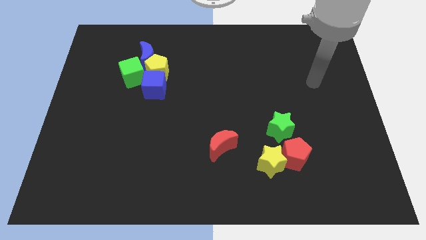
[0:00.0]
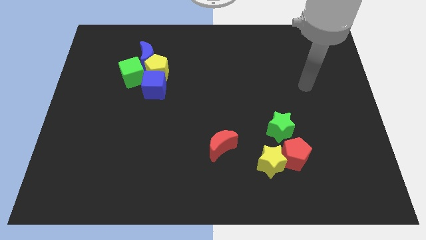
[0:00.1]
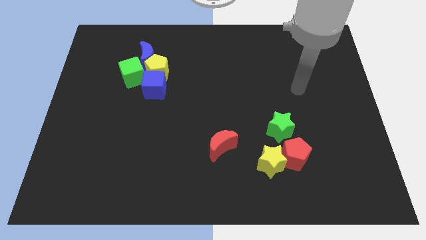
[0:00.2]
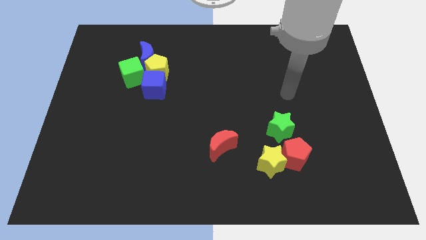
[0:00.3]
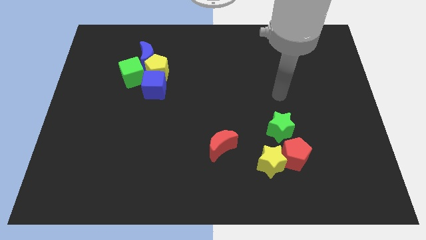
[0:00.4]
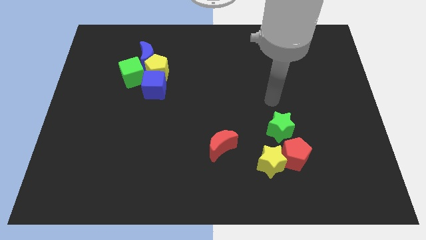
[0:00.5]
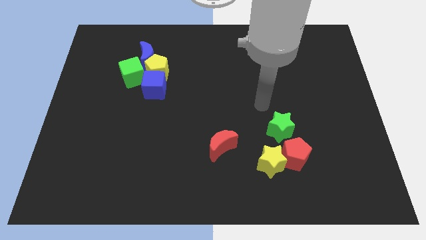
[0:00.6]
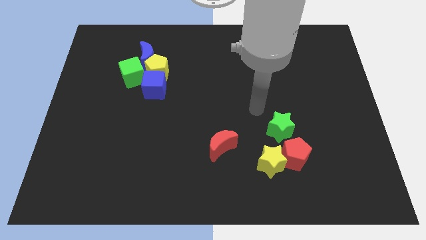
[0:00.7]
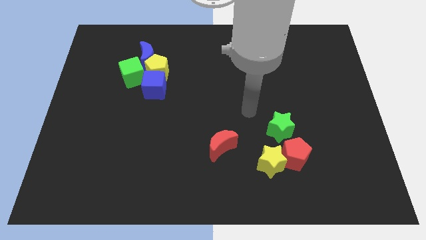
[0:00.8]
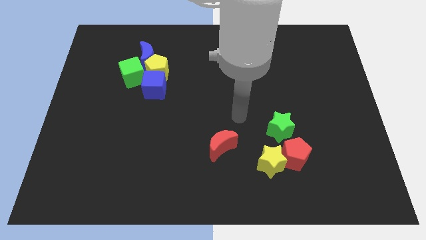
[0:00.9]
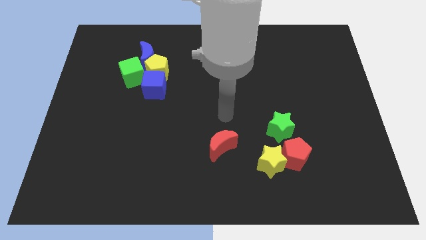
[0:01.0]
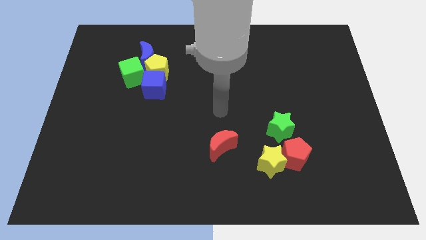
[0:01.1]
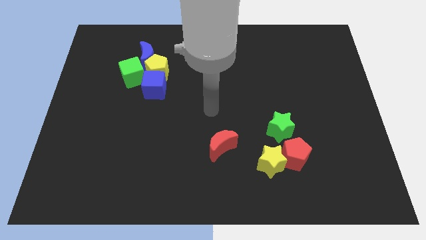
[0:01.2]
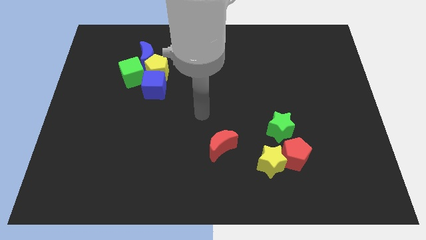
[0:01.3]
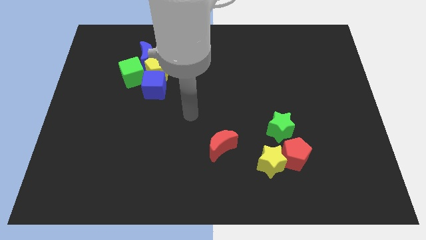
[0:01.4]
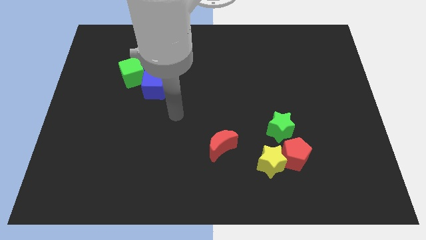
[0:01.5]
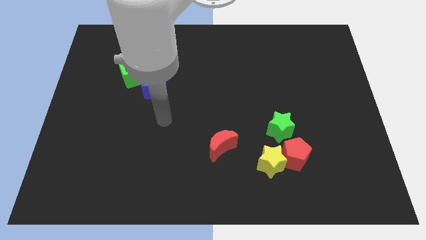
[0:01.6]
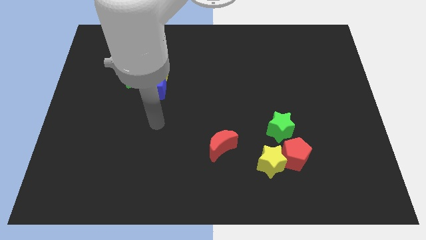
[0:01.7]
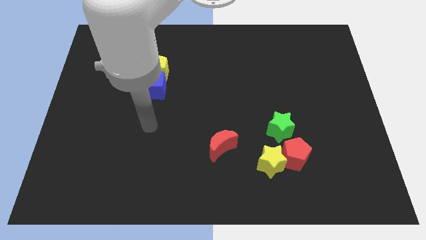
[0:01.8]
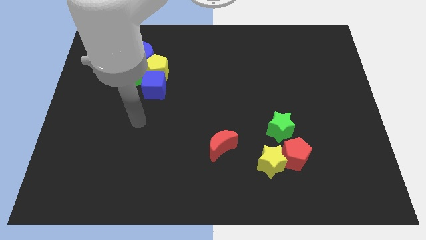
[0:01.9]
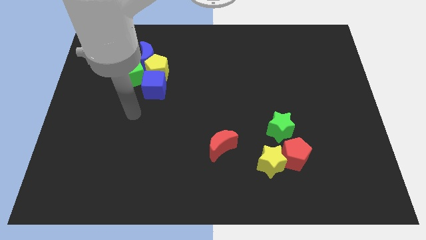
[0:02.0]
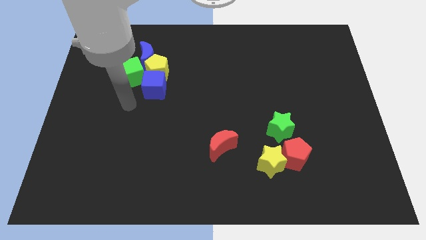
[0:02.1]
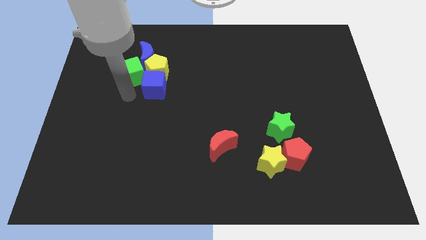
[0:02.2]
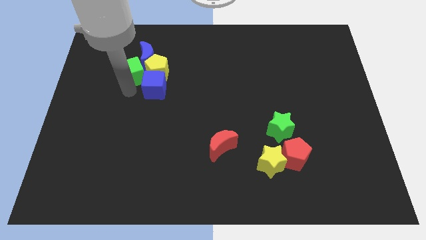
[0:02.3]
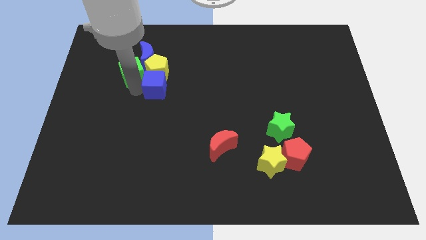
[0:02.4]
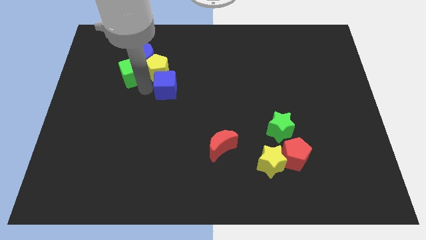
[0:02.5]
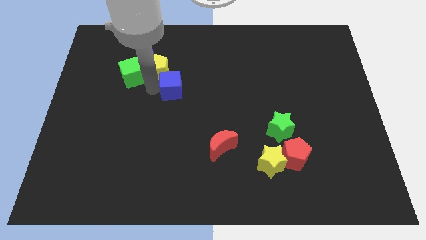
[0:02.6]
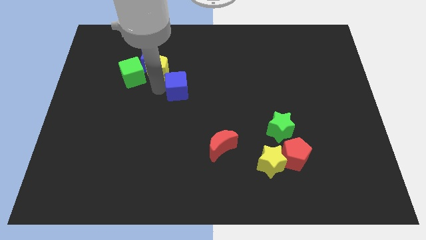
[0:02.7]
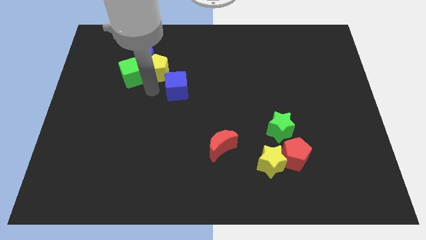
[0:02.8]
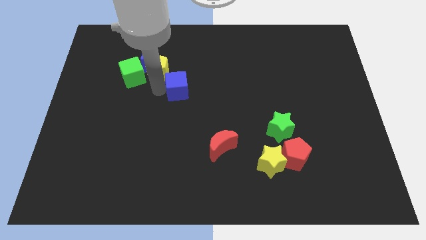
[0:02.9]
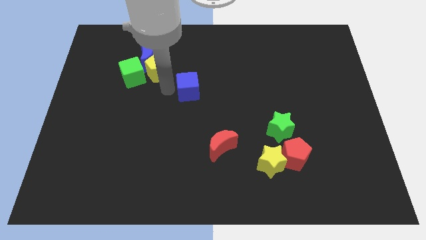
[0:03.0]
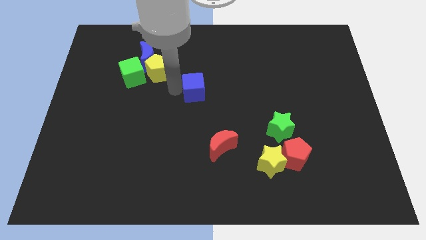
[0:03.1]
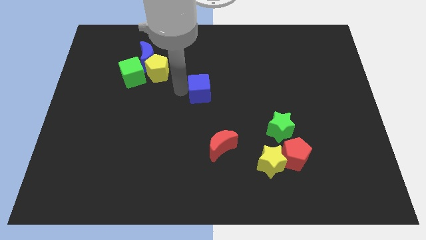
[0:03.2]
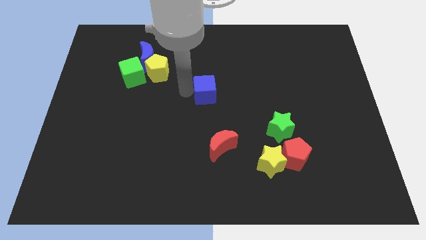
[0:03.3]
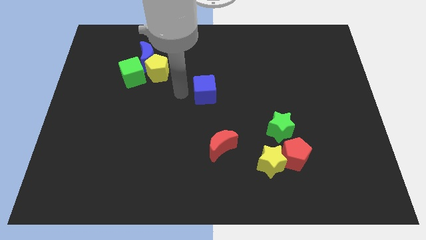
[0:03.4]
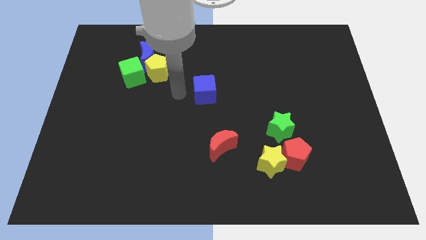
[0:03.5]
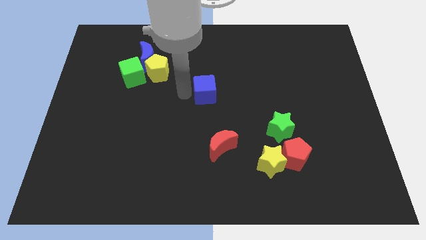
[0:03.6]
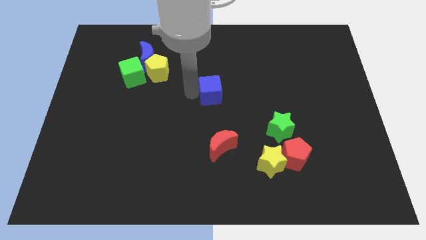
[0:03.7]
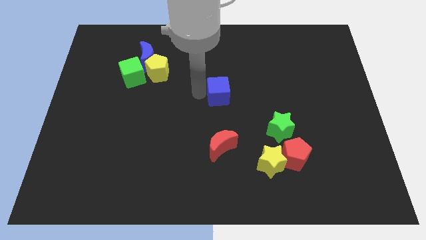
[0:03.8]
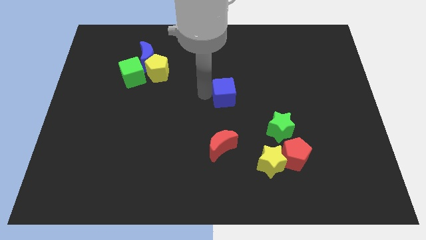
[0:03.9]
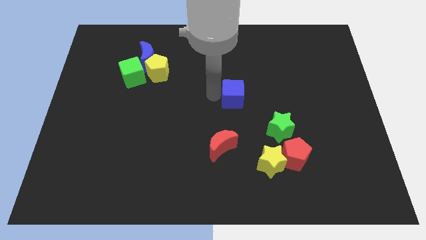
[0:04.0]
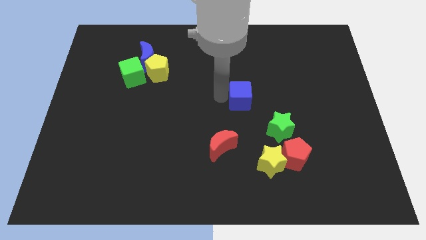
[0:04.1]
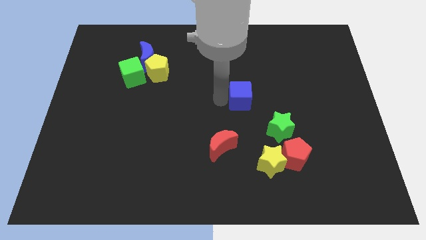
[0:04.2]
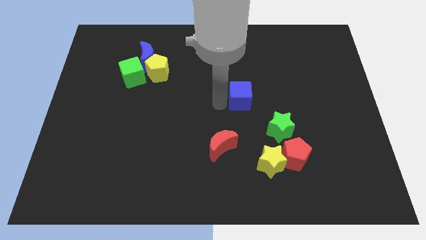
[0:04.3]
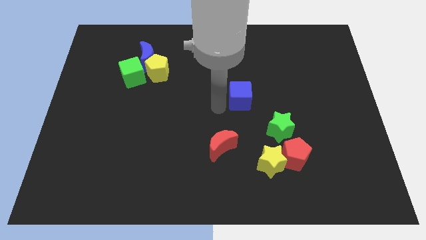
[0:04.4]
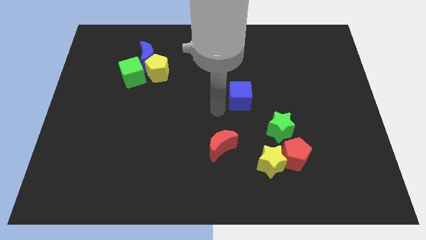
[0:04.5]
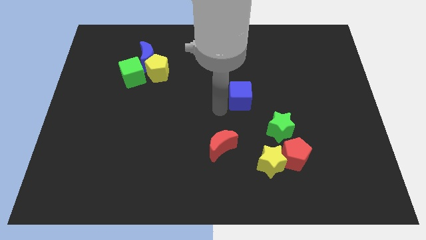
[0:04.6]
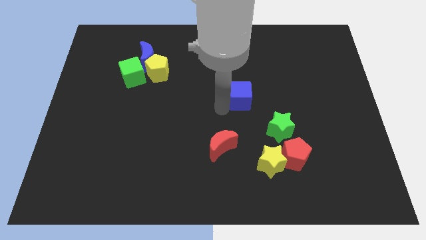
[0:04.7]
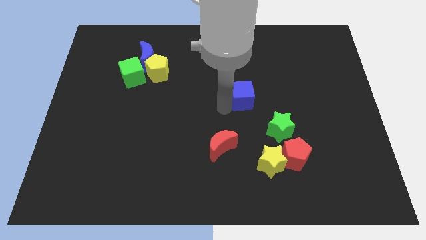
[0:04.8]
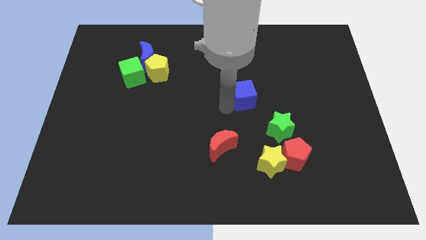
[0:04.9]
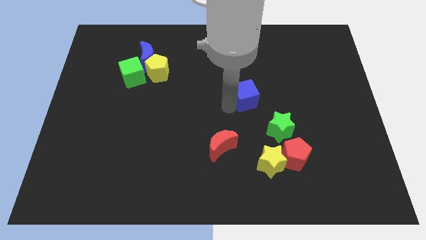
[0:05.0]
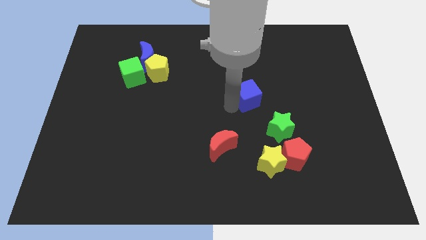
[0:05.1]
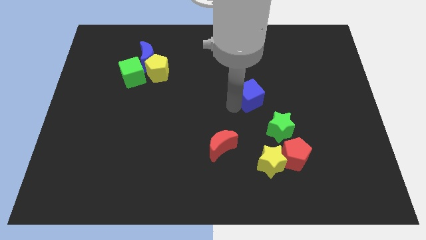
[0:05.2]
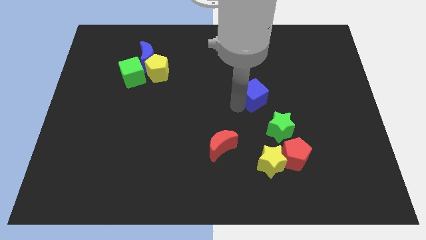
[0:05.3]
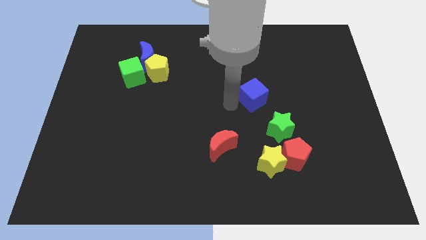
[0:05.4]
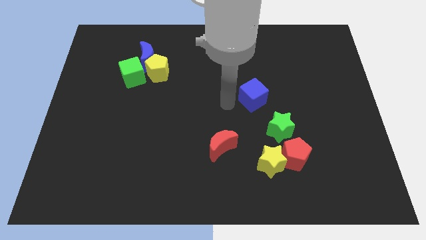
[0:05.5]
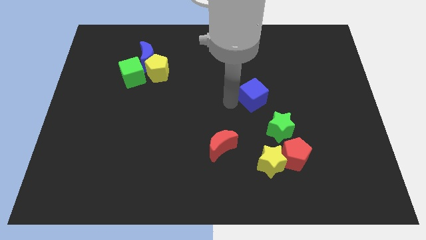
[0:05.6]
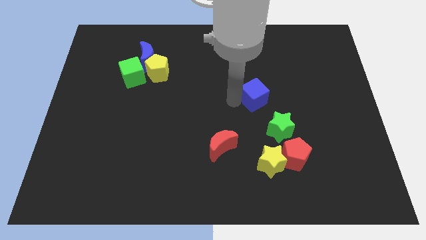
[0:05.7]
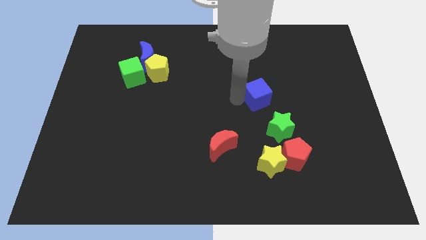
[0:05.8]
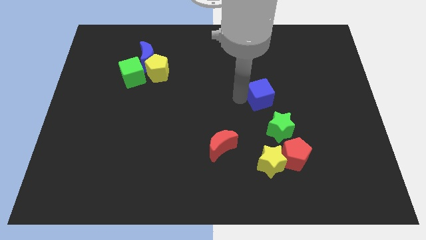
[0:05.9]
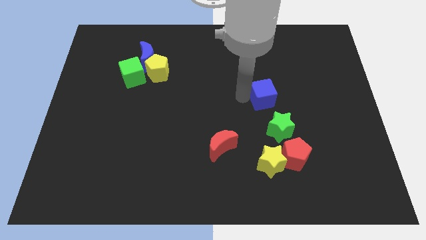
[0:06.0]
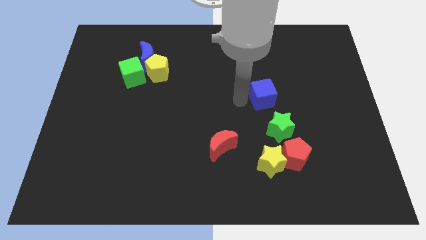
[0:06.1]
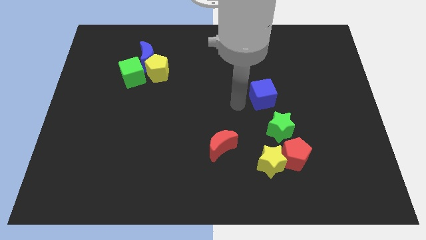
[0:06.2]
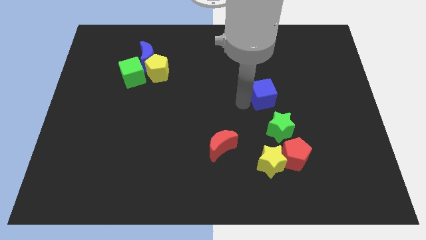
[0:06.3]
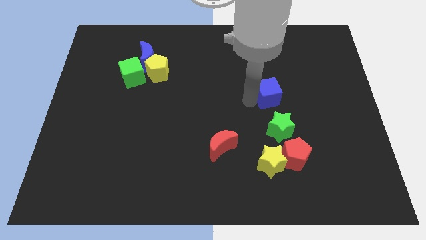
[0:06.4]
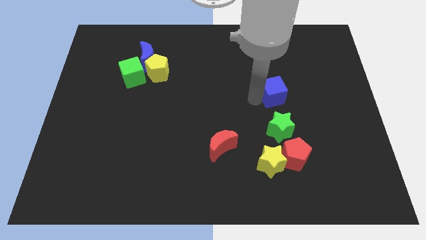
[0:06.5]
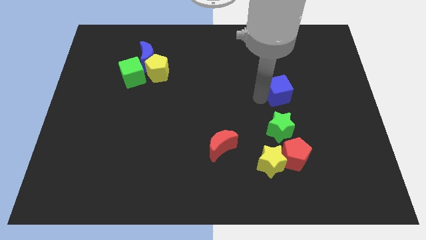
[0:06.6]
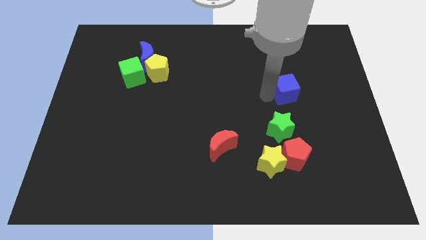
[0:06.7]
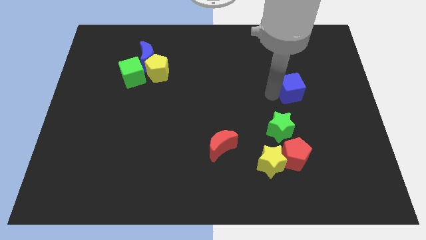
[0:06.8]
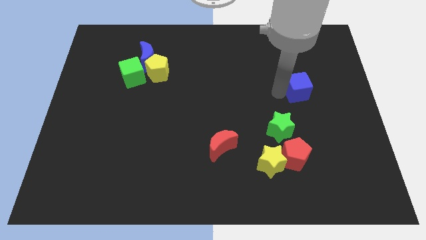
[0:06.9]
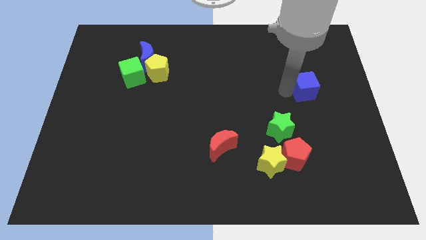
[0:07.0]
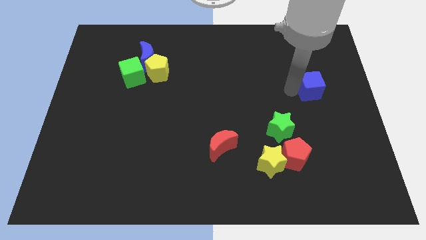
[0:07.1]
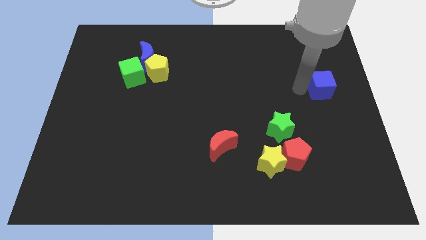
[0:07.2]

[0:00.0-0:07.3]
slide the blue cube to the right side
